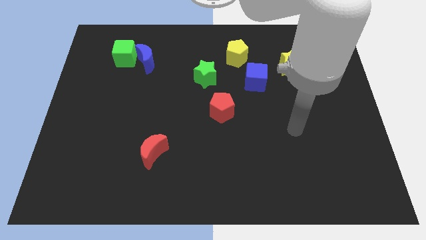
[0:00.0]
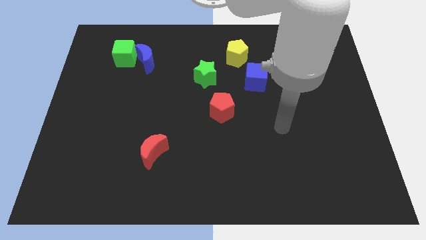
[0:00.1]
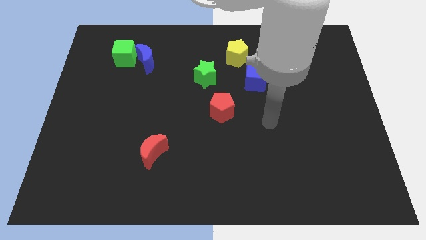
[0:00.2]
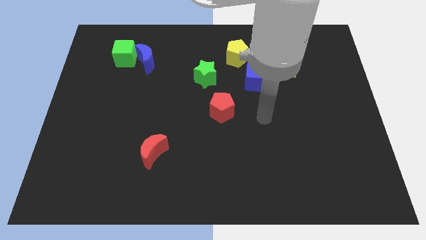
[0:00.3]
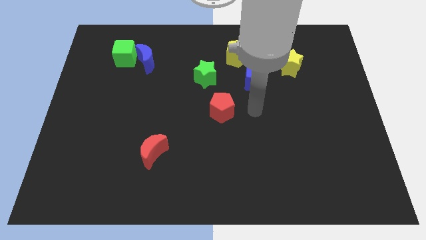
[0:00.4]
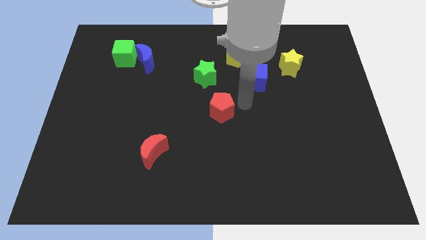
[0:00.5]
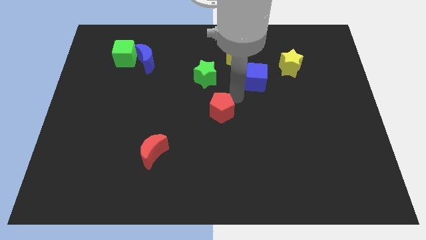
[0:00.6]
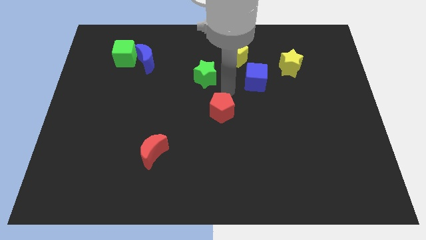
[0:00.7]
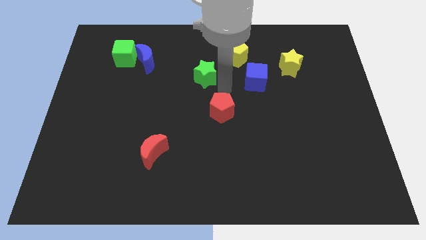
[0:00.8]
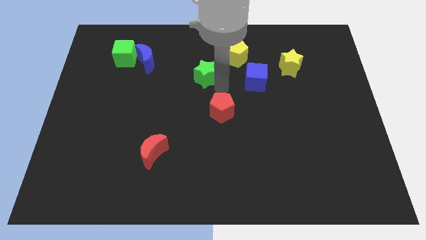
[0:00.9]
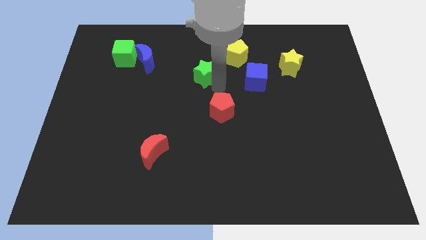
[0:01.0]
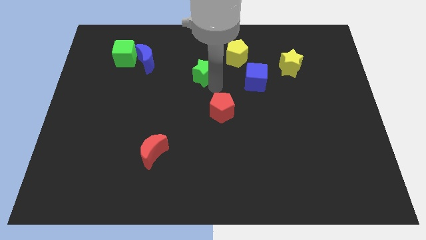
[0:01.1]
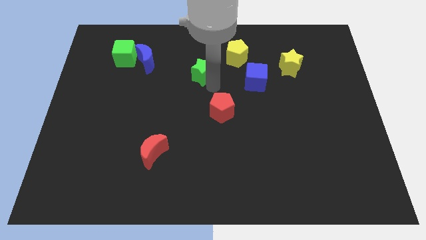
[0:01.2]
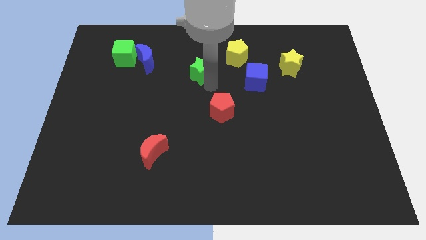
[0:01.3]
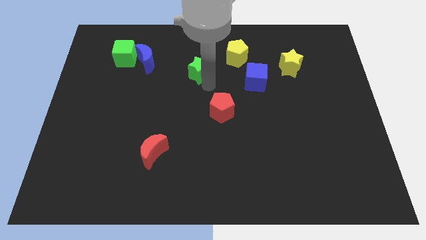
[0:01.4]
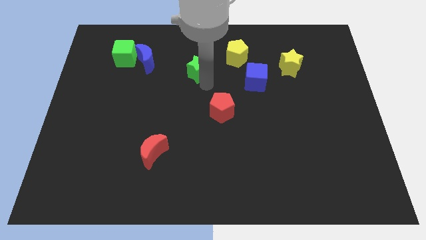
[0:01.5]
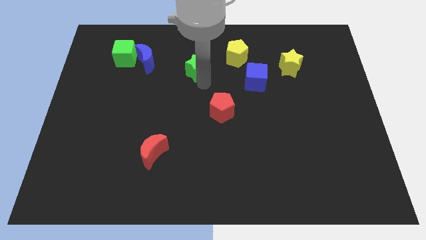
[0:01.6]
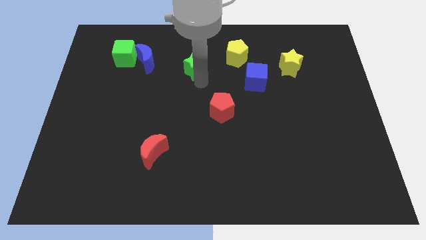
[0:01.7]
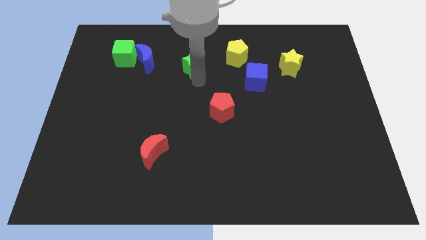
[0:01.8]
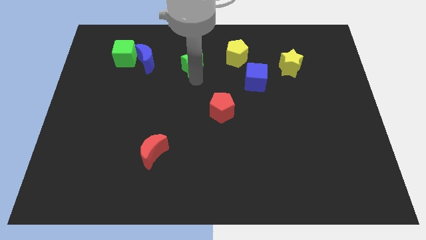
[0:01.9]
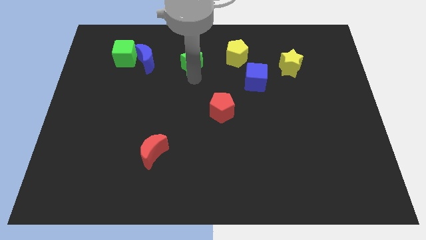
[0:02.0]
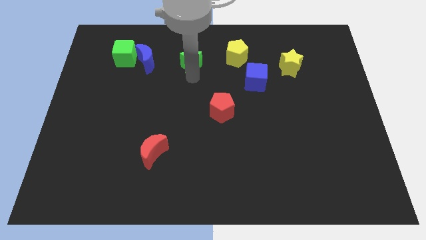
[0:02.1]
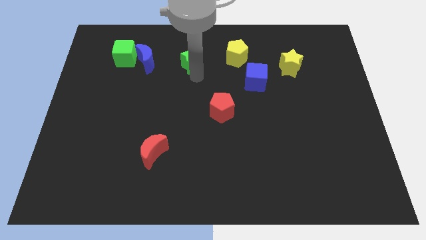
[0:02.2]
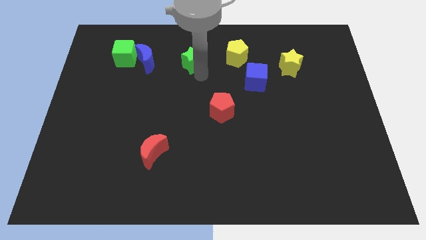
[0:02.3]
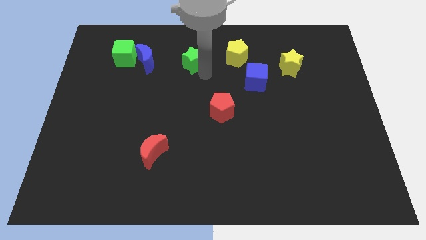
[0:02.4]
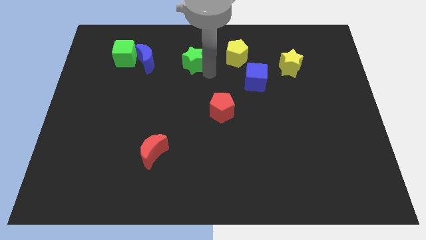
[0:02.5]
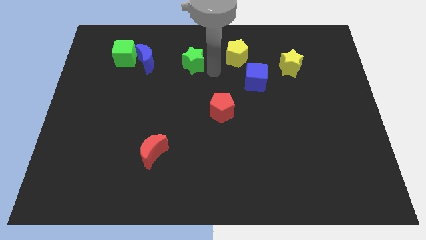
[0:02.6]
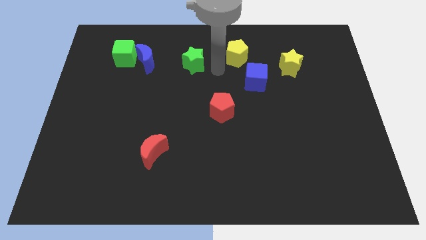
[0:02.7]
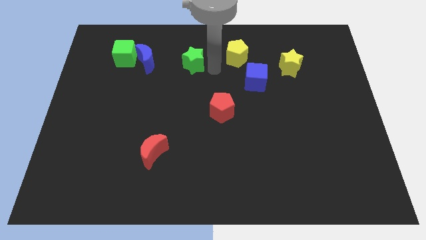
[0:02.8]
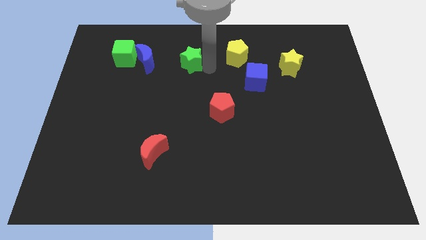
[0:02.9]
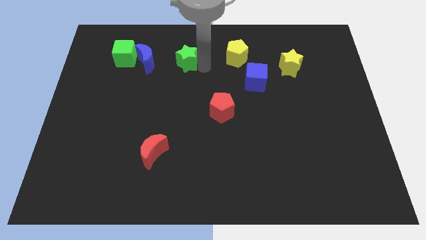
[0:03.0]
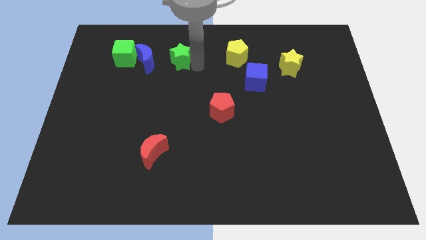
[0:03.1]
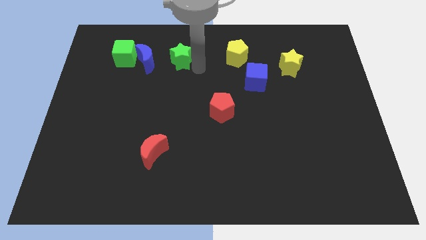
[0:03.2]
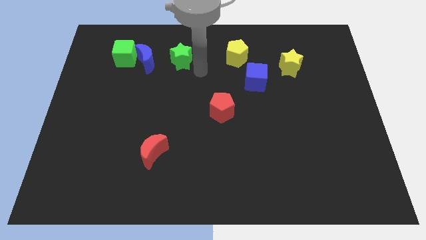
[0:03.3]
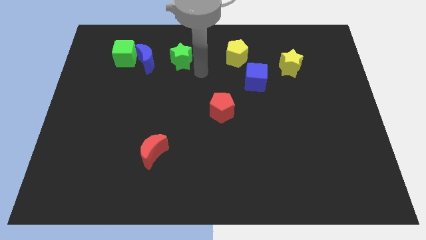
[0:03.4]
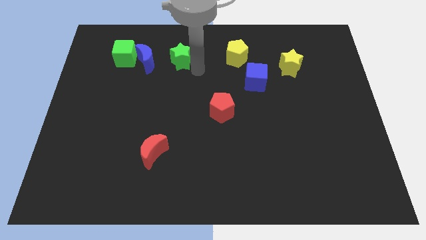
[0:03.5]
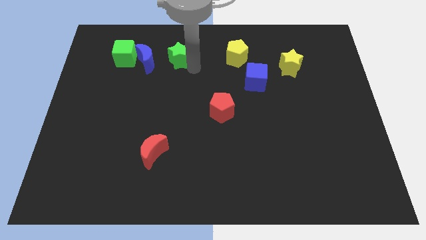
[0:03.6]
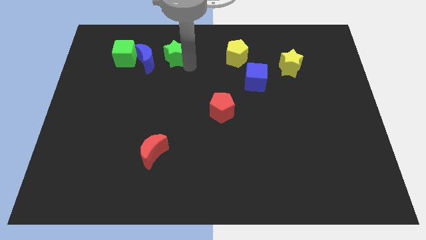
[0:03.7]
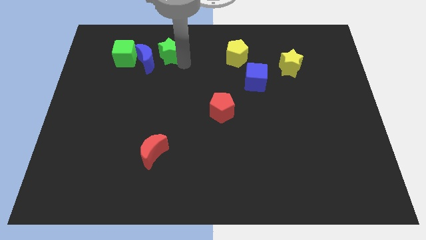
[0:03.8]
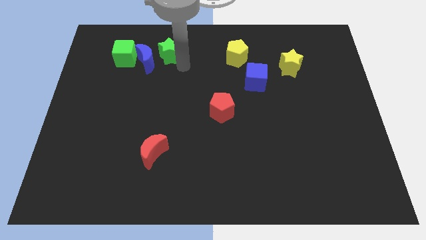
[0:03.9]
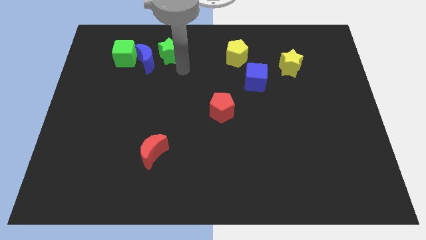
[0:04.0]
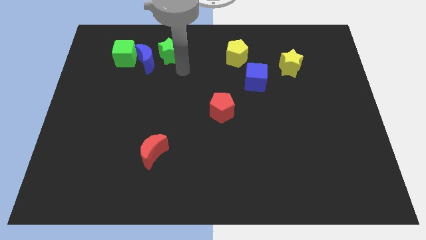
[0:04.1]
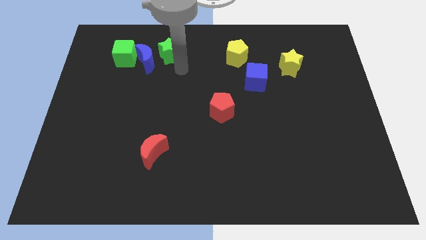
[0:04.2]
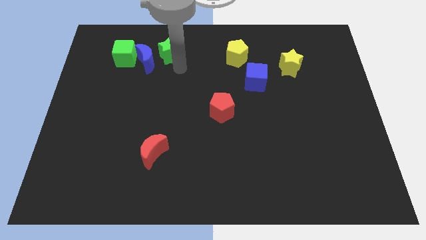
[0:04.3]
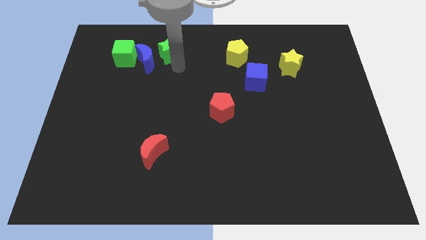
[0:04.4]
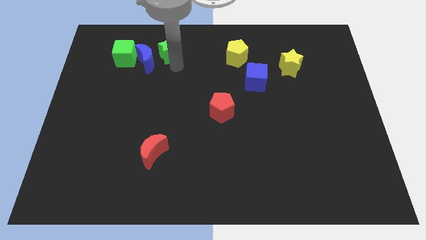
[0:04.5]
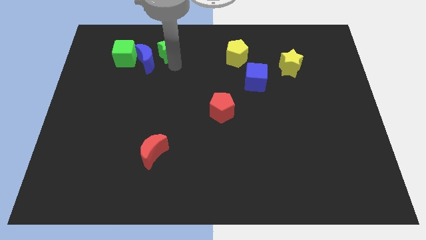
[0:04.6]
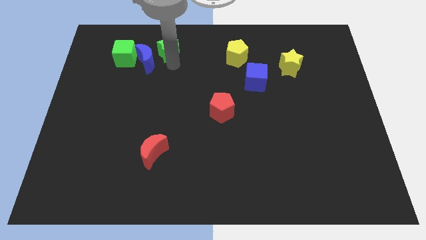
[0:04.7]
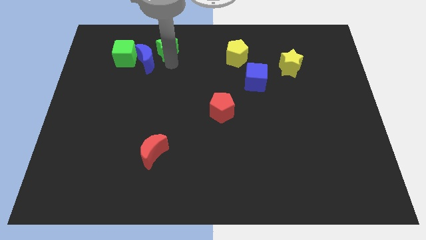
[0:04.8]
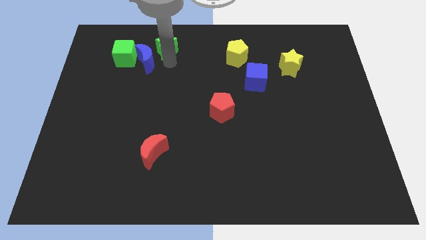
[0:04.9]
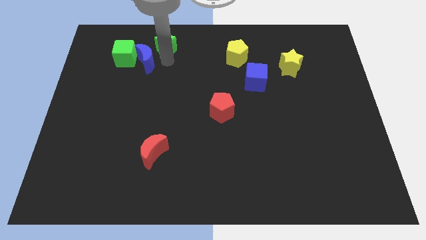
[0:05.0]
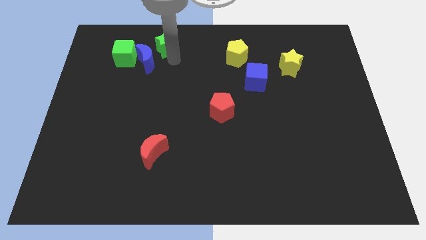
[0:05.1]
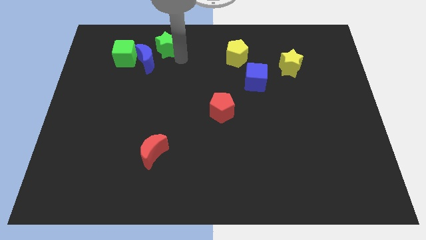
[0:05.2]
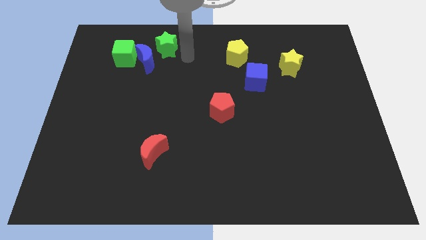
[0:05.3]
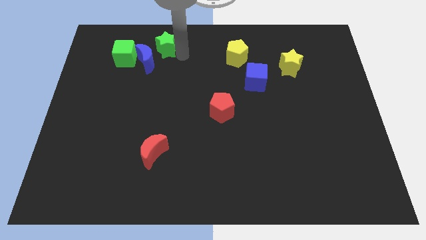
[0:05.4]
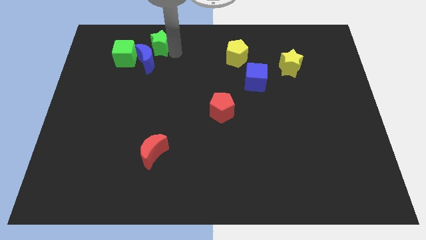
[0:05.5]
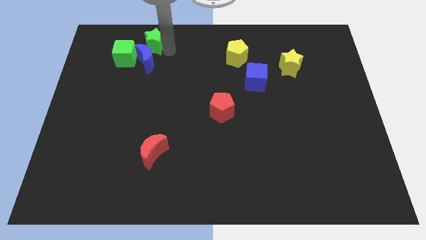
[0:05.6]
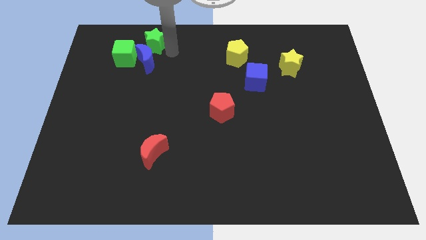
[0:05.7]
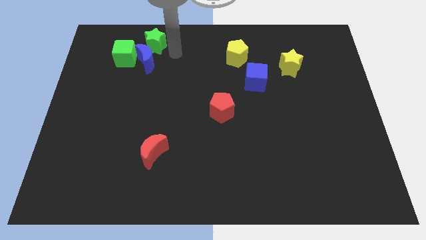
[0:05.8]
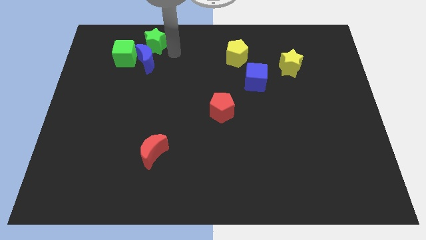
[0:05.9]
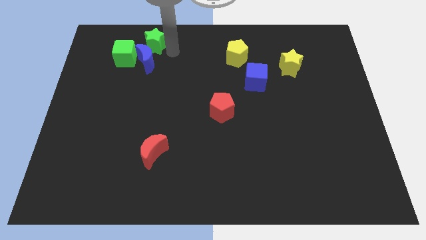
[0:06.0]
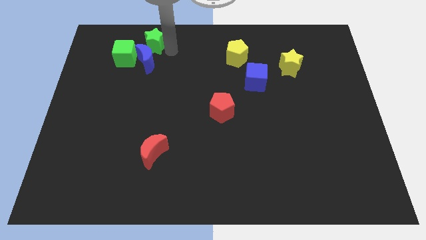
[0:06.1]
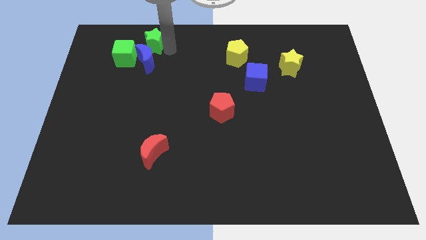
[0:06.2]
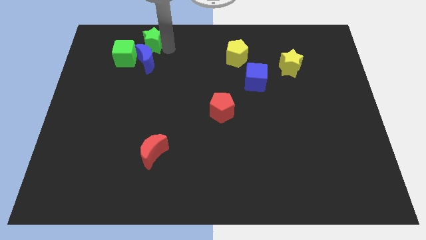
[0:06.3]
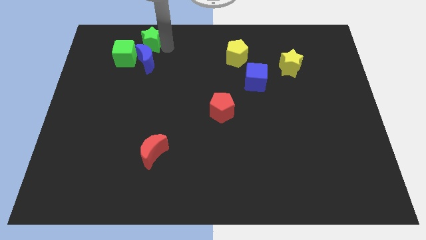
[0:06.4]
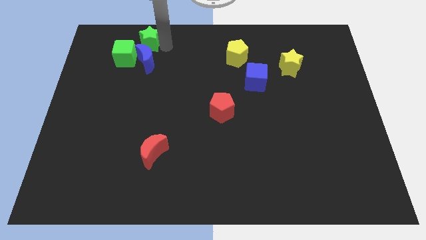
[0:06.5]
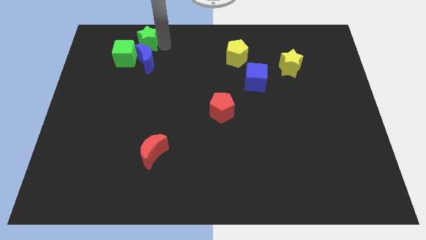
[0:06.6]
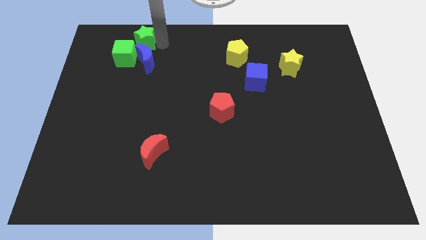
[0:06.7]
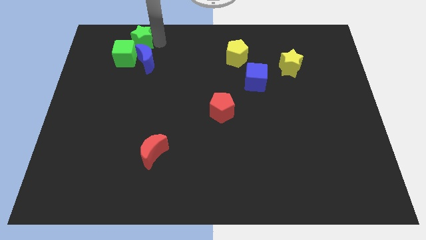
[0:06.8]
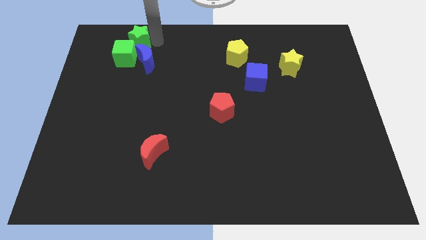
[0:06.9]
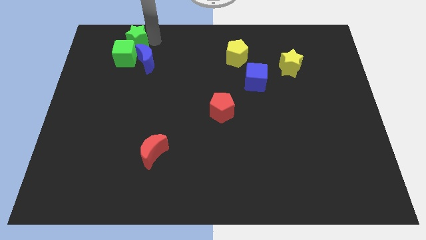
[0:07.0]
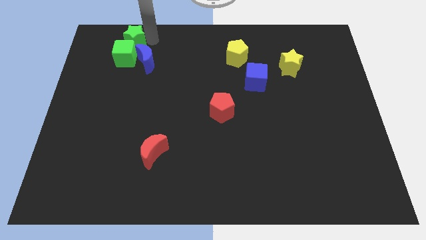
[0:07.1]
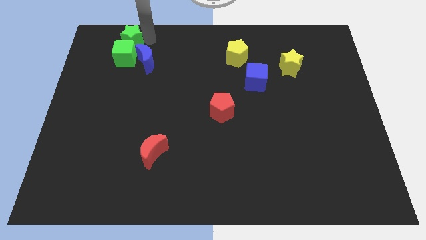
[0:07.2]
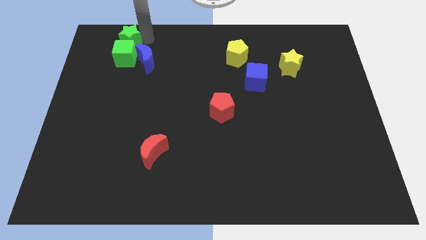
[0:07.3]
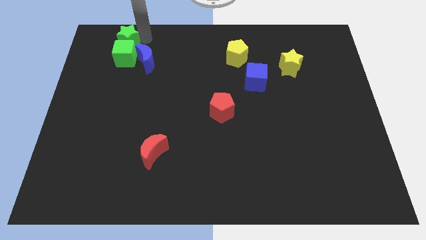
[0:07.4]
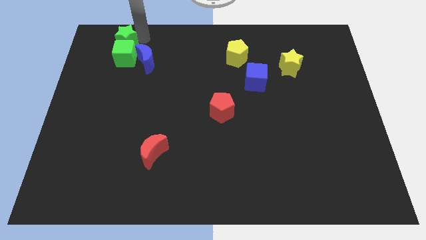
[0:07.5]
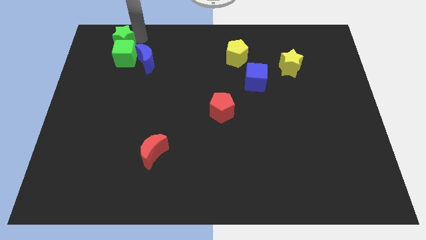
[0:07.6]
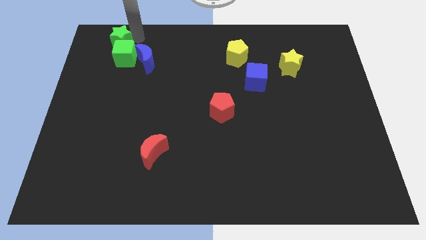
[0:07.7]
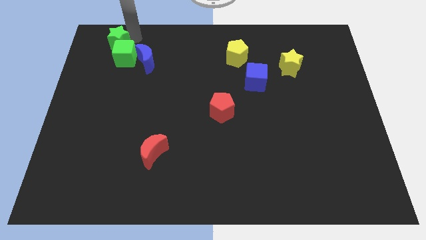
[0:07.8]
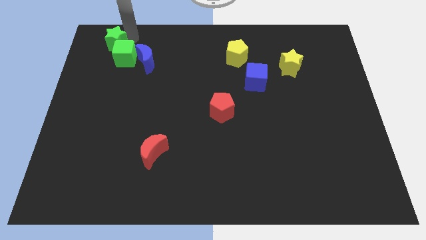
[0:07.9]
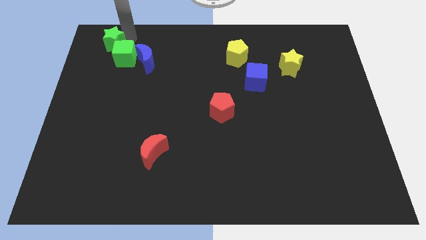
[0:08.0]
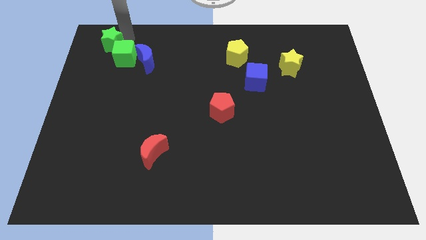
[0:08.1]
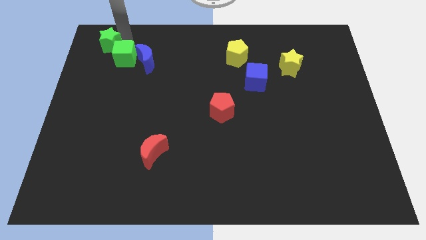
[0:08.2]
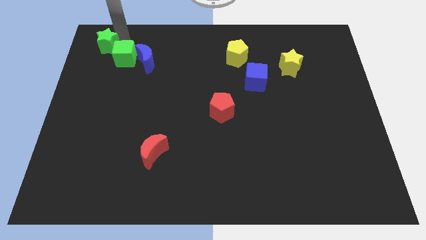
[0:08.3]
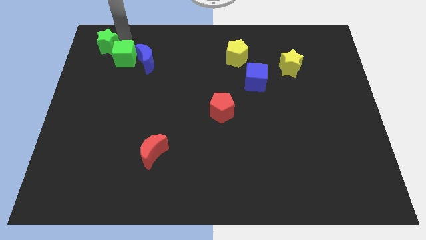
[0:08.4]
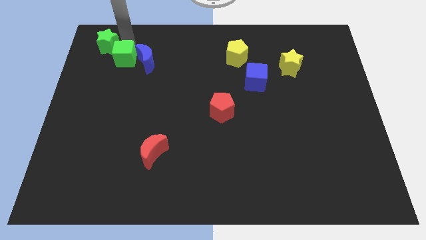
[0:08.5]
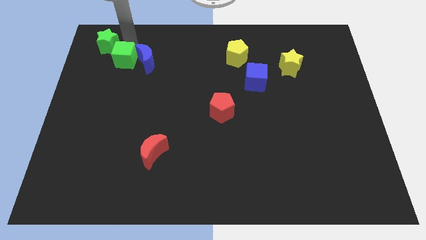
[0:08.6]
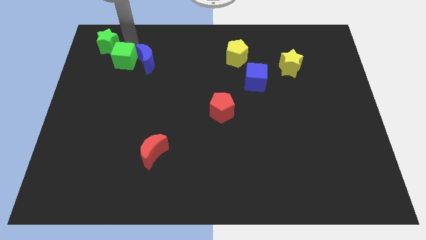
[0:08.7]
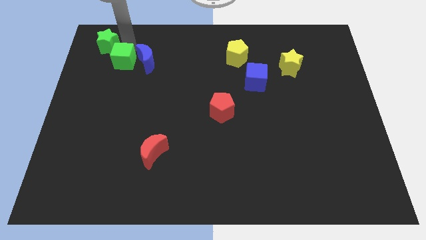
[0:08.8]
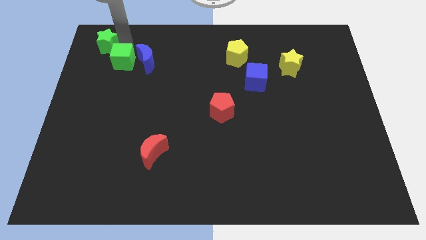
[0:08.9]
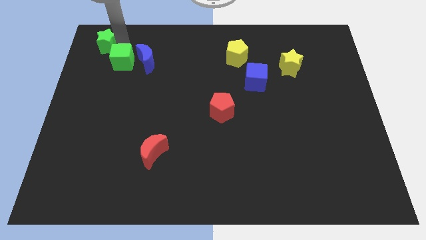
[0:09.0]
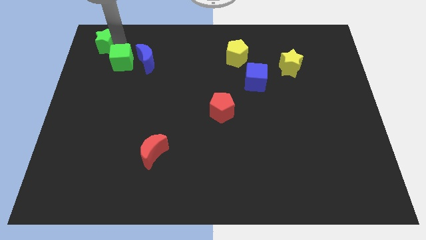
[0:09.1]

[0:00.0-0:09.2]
move the green star to the top left corner
